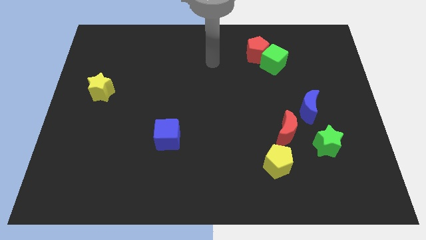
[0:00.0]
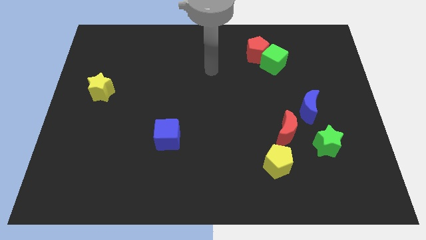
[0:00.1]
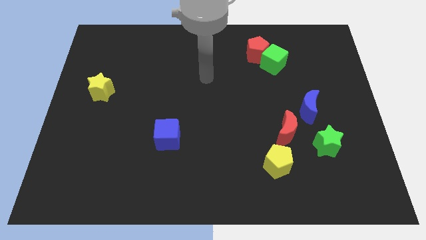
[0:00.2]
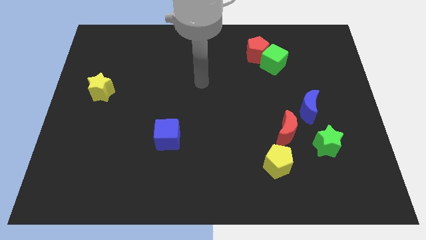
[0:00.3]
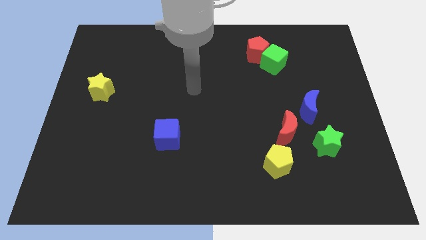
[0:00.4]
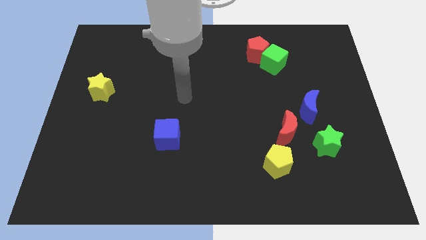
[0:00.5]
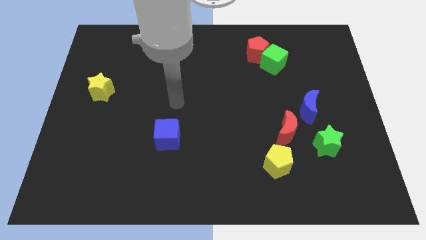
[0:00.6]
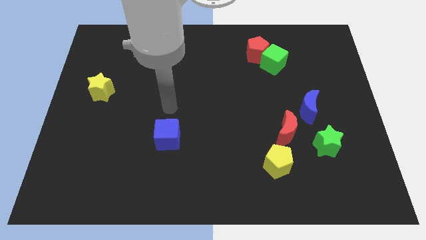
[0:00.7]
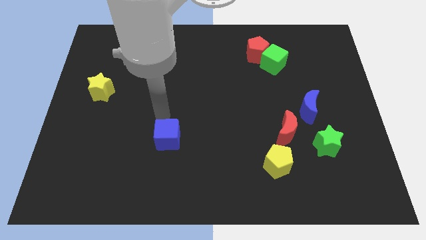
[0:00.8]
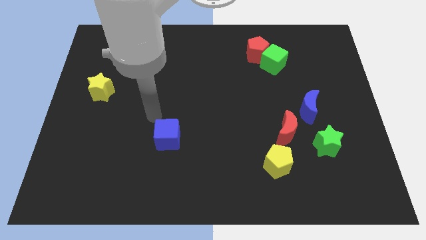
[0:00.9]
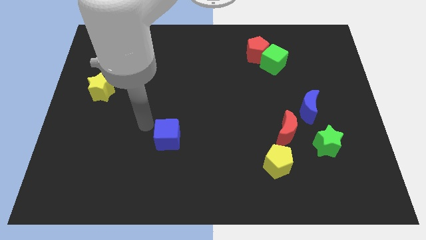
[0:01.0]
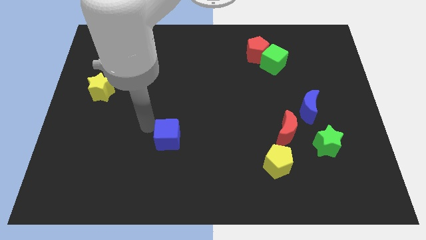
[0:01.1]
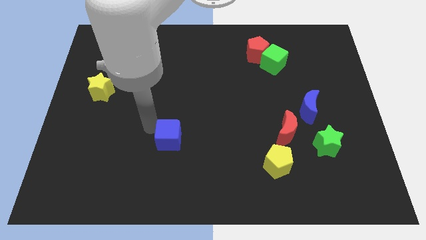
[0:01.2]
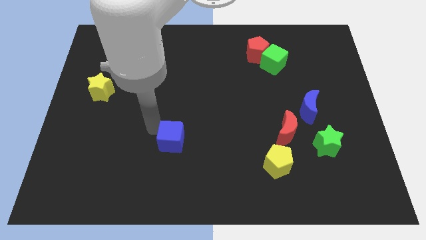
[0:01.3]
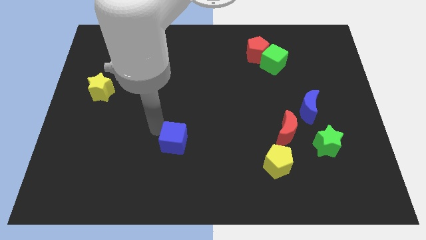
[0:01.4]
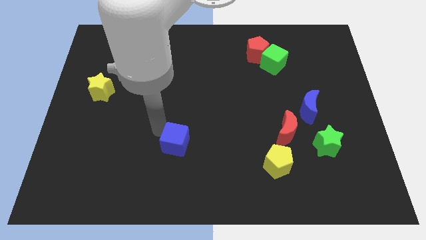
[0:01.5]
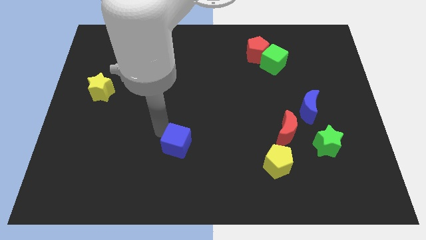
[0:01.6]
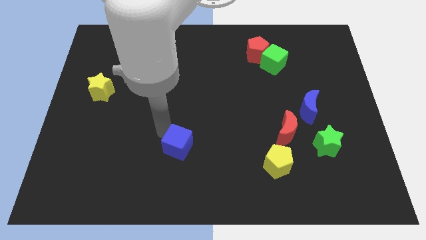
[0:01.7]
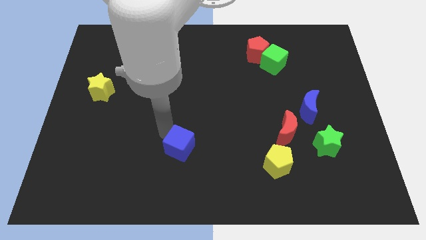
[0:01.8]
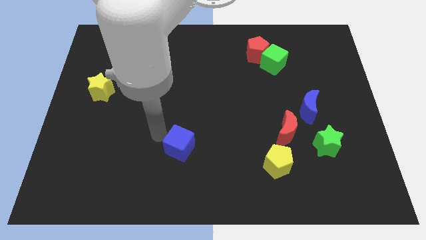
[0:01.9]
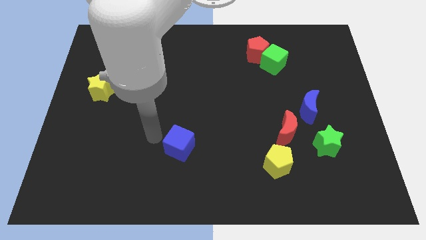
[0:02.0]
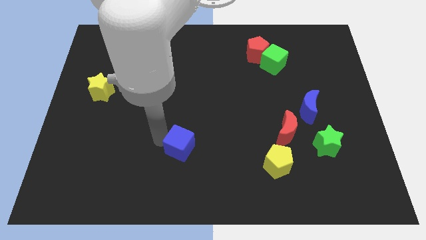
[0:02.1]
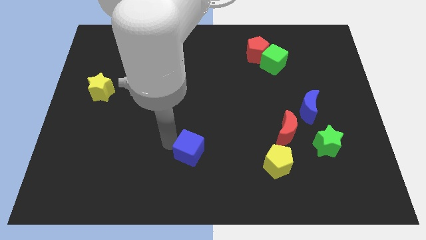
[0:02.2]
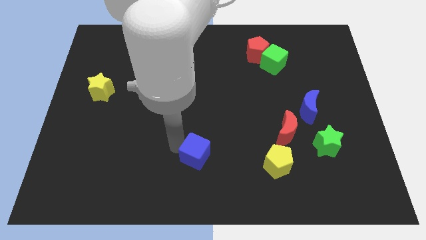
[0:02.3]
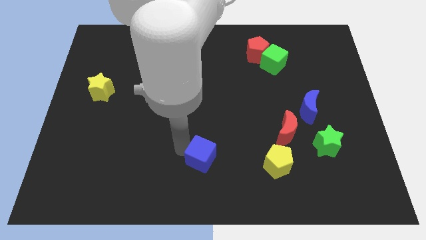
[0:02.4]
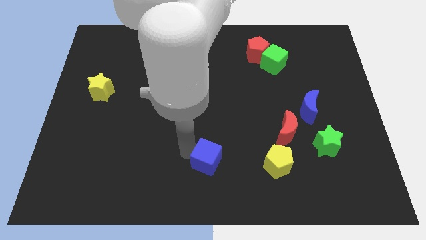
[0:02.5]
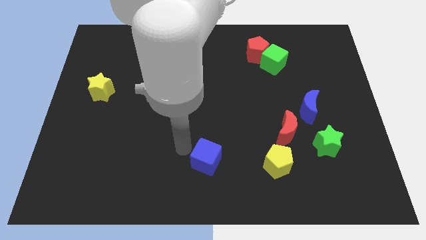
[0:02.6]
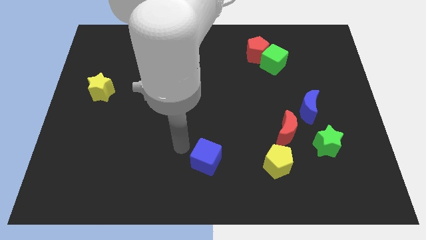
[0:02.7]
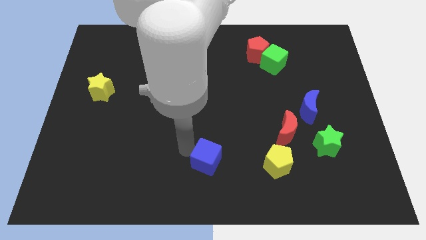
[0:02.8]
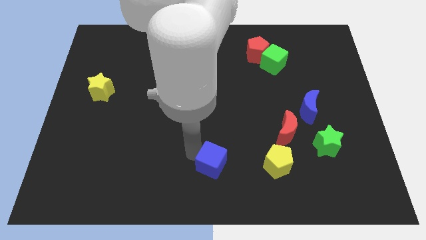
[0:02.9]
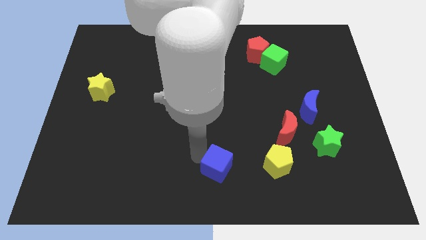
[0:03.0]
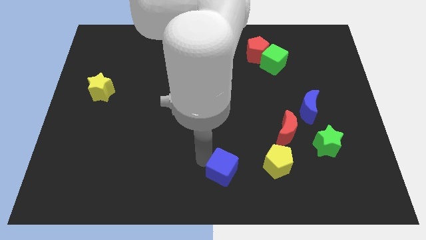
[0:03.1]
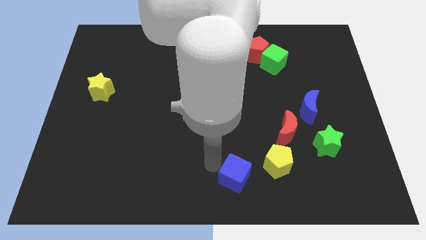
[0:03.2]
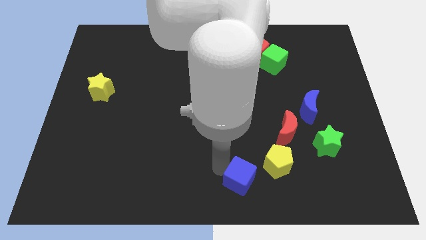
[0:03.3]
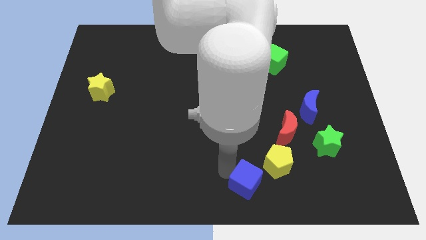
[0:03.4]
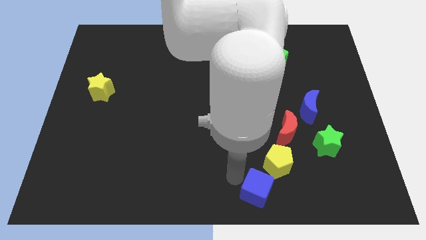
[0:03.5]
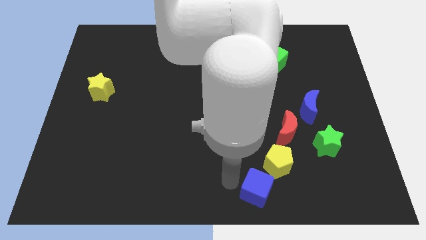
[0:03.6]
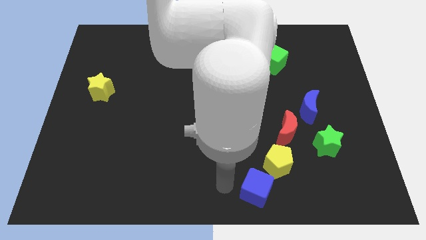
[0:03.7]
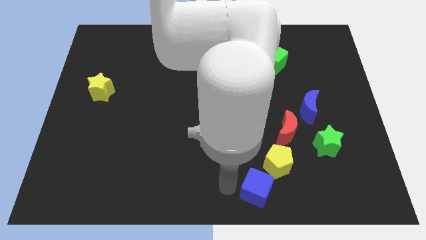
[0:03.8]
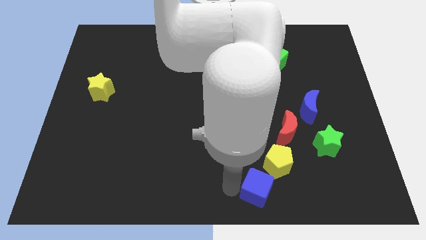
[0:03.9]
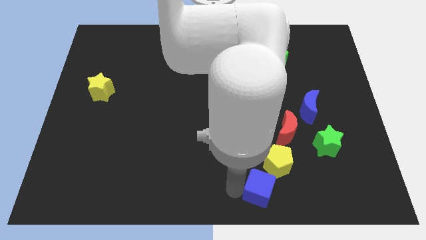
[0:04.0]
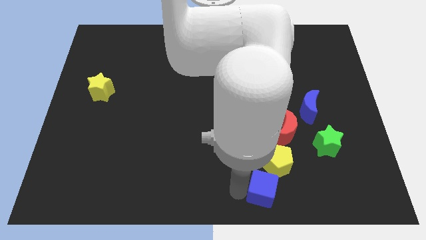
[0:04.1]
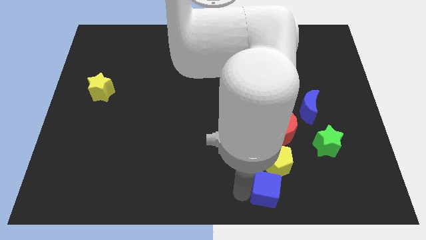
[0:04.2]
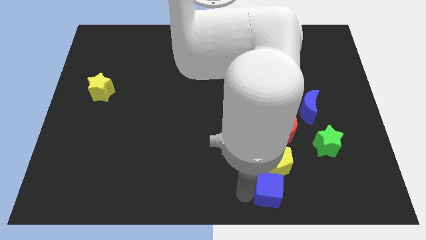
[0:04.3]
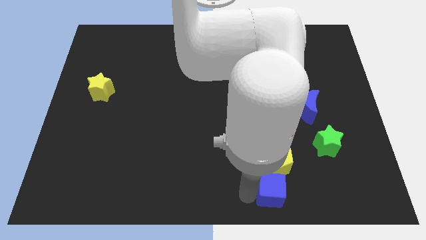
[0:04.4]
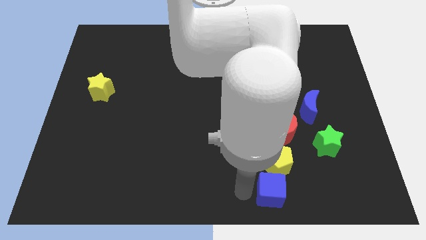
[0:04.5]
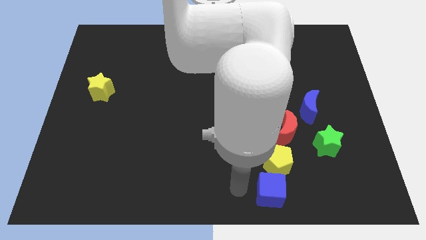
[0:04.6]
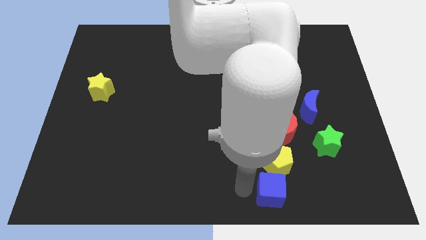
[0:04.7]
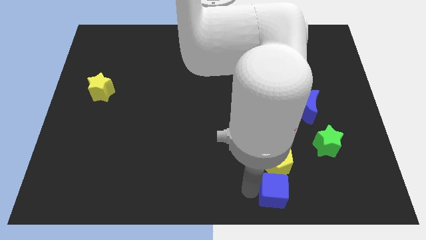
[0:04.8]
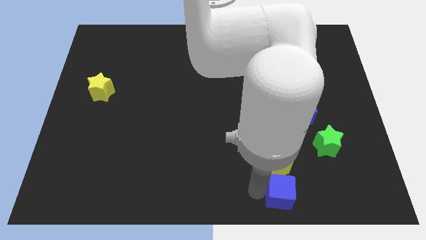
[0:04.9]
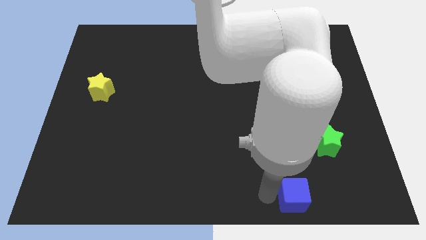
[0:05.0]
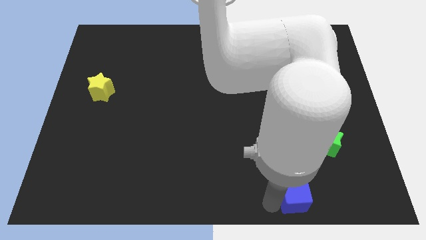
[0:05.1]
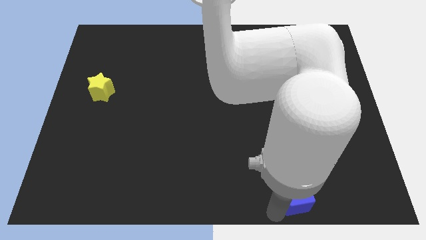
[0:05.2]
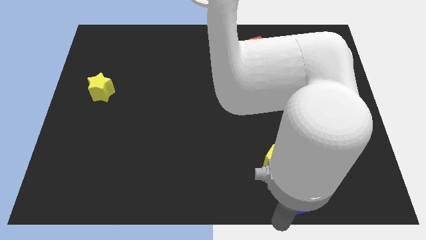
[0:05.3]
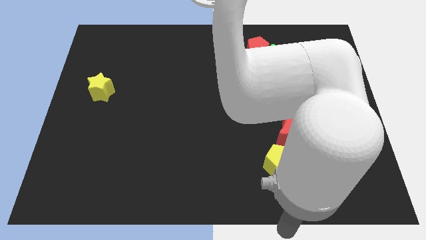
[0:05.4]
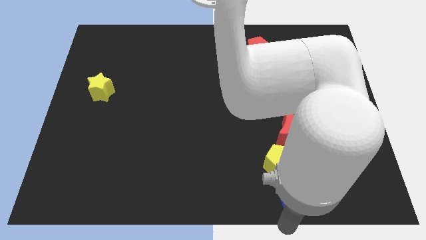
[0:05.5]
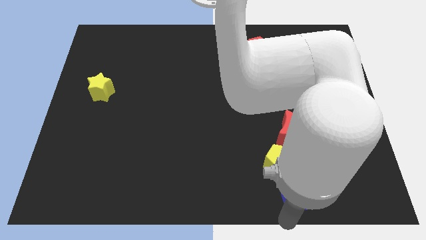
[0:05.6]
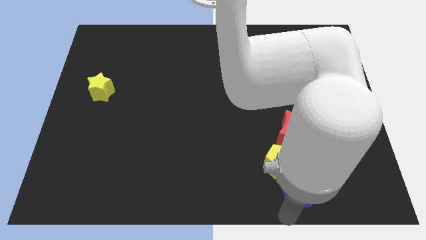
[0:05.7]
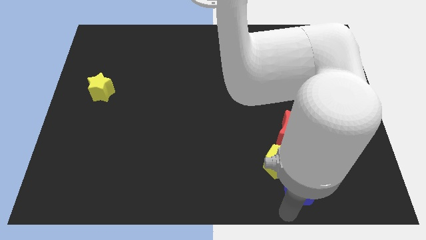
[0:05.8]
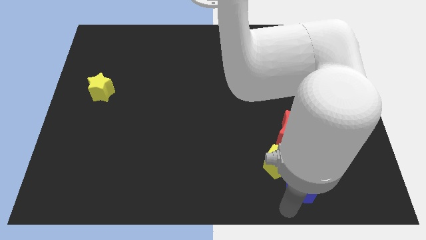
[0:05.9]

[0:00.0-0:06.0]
put the blue cube diagonally down and to the left of the green star

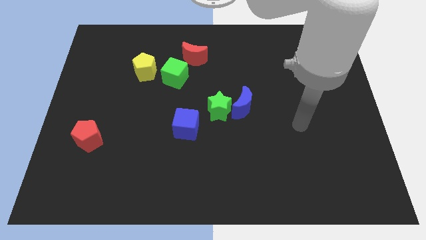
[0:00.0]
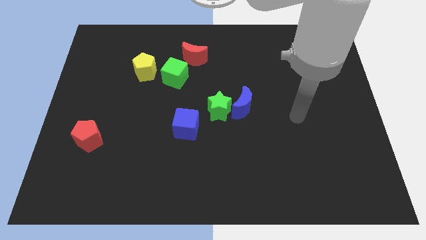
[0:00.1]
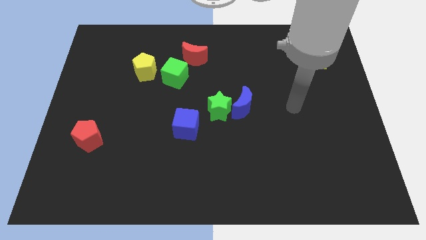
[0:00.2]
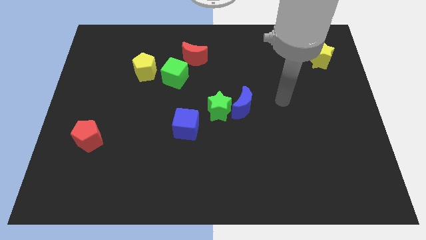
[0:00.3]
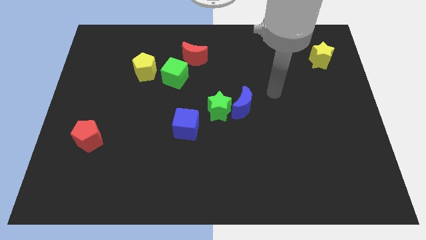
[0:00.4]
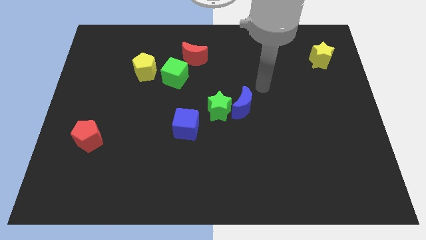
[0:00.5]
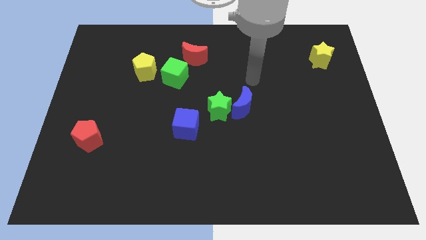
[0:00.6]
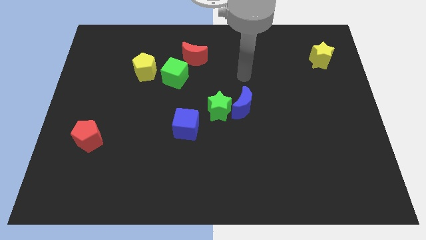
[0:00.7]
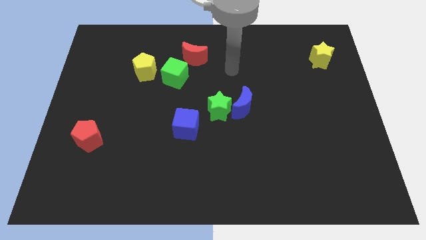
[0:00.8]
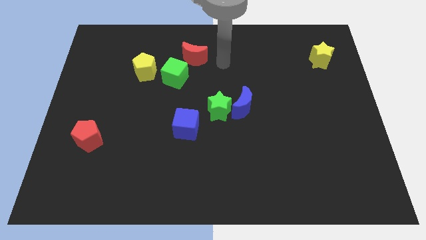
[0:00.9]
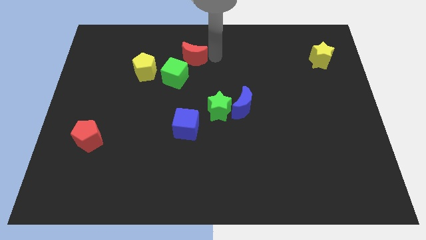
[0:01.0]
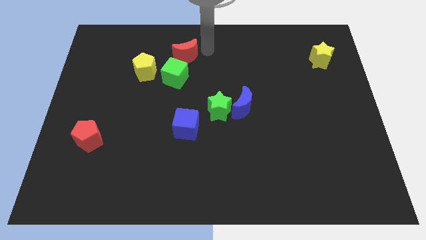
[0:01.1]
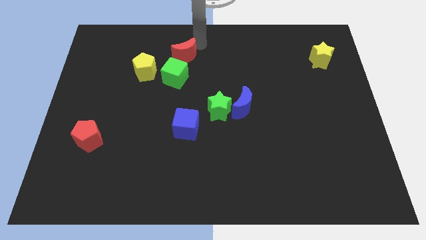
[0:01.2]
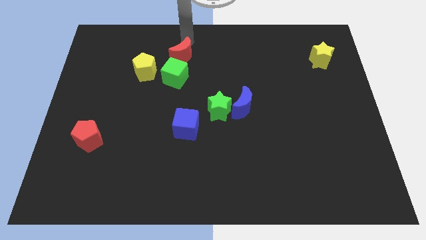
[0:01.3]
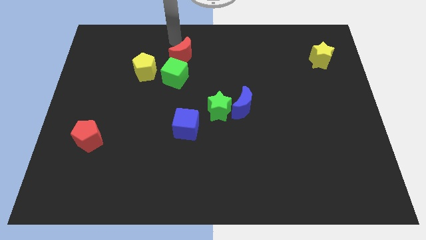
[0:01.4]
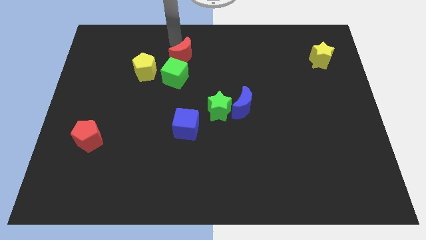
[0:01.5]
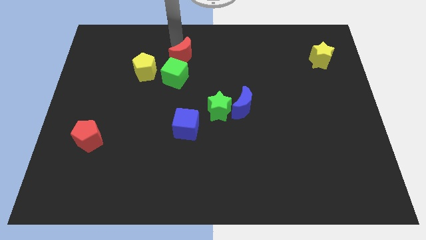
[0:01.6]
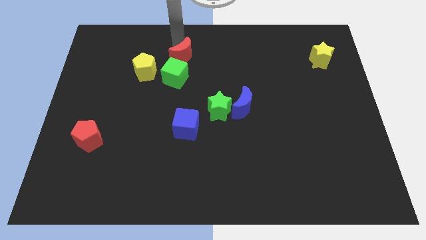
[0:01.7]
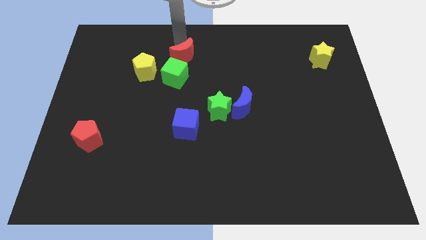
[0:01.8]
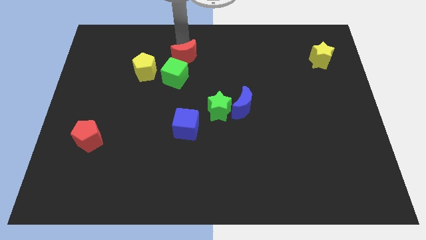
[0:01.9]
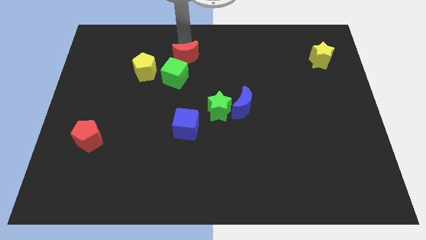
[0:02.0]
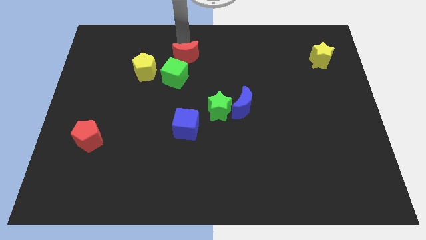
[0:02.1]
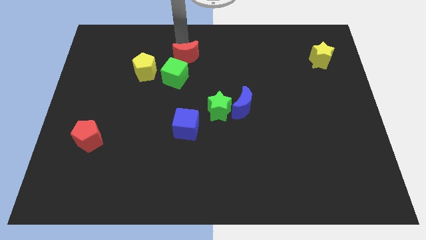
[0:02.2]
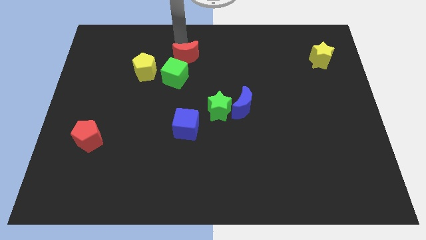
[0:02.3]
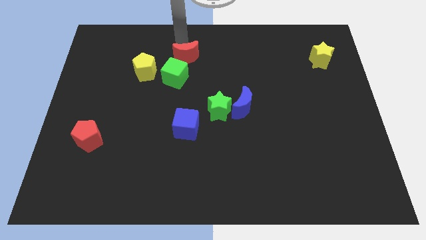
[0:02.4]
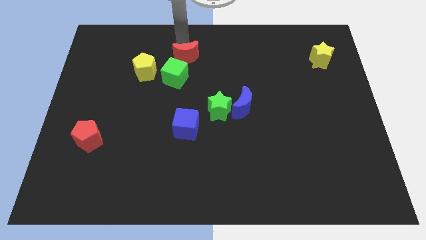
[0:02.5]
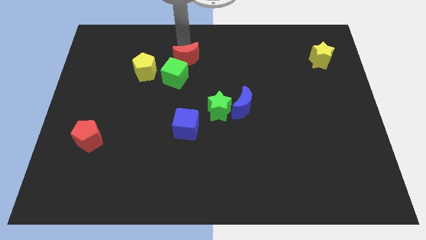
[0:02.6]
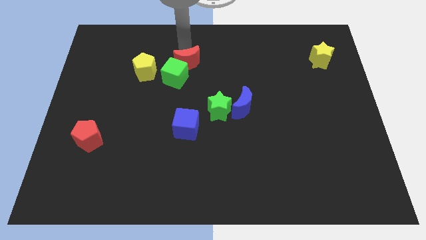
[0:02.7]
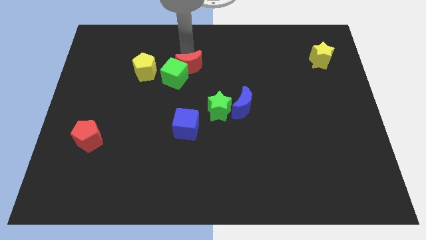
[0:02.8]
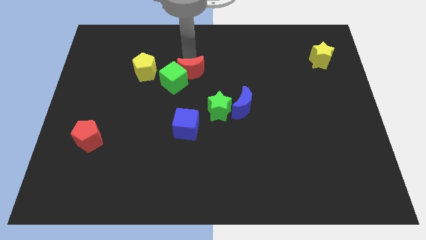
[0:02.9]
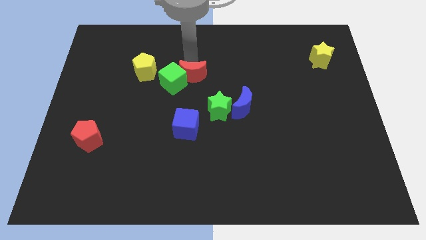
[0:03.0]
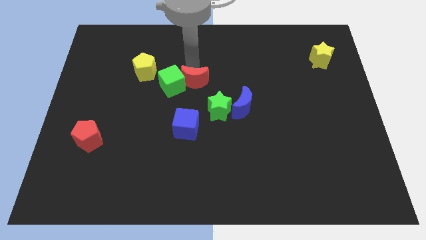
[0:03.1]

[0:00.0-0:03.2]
slide the red moon to the bottom right side of the green cube
